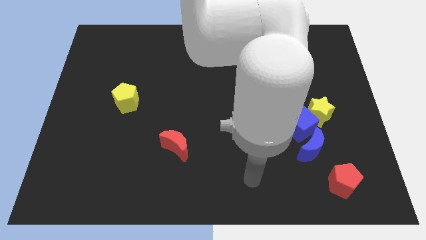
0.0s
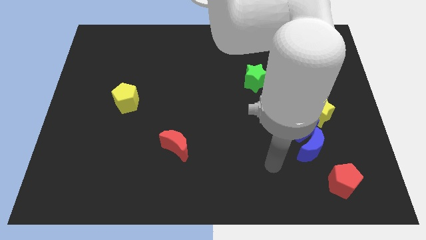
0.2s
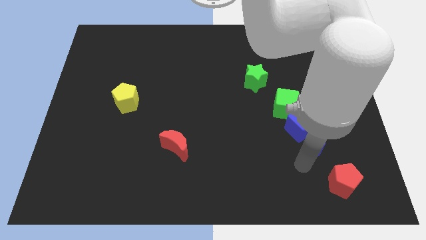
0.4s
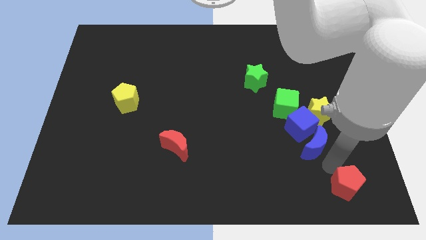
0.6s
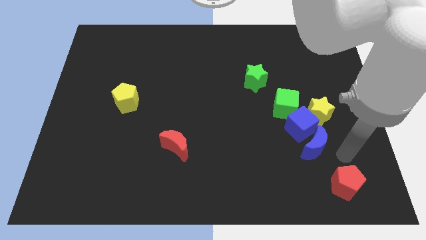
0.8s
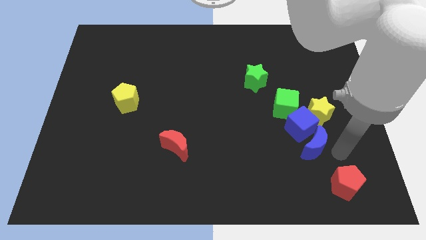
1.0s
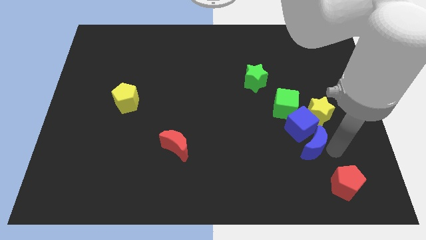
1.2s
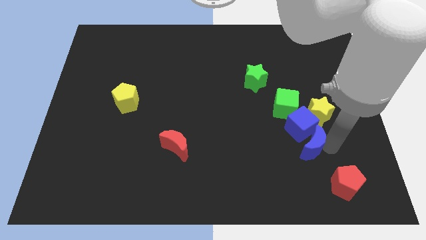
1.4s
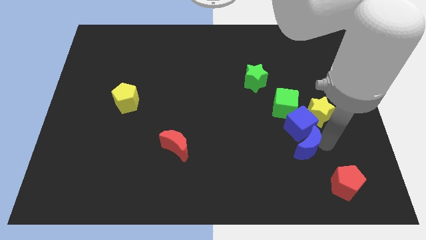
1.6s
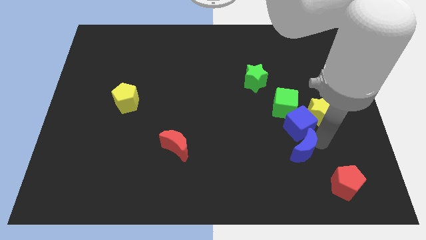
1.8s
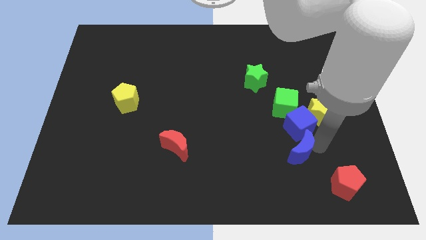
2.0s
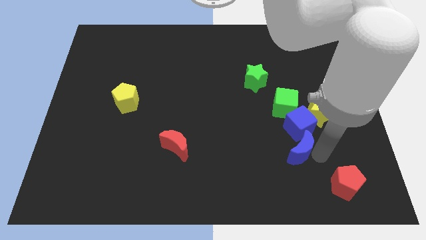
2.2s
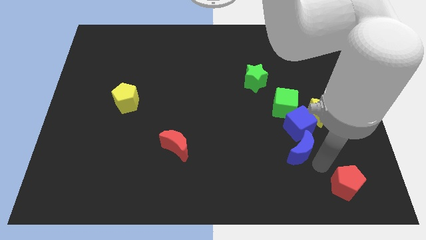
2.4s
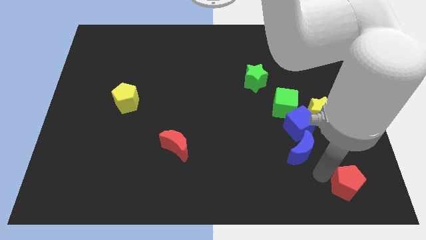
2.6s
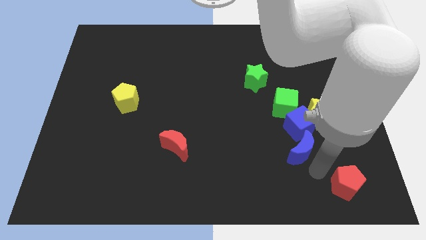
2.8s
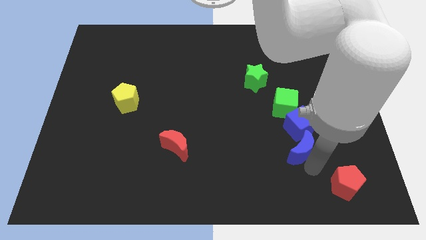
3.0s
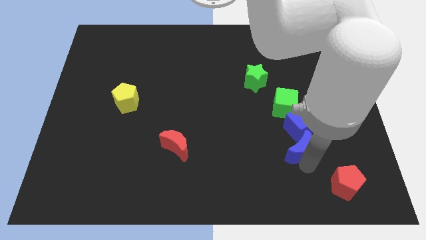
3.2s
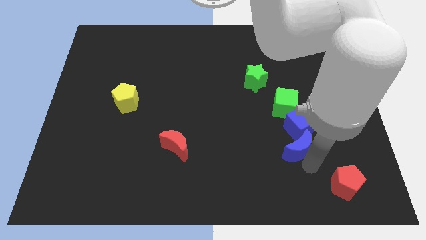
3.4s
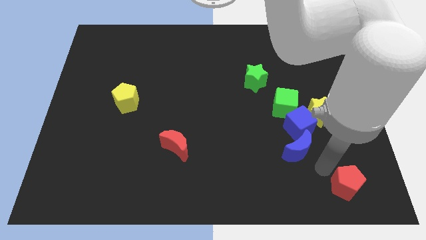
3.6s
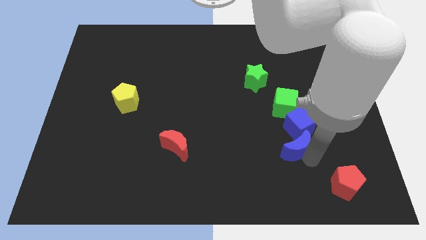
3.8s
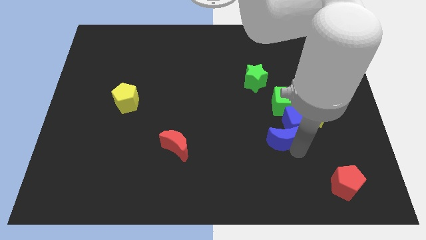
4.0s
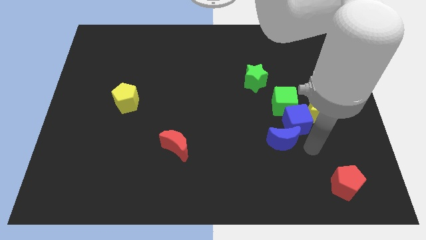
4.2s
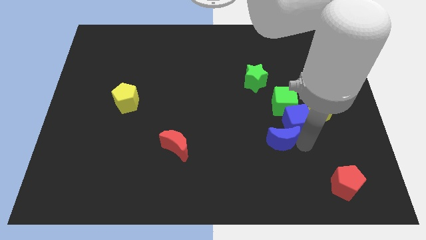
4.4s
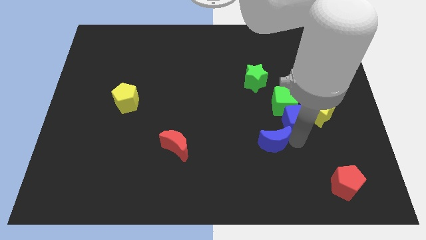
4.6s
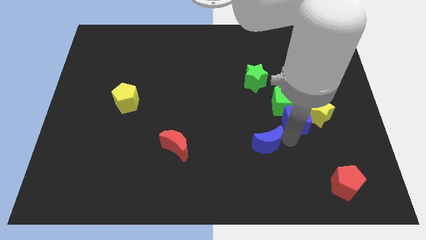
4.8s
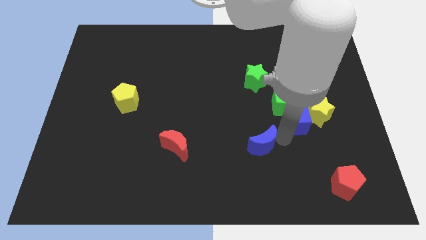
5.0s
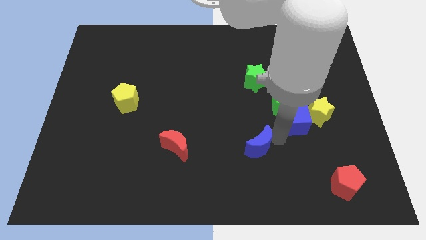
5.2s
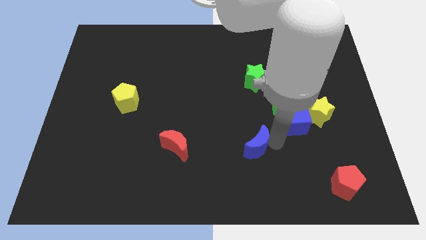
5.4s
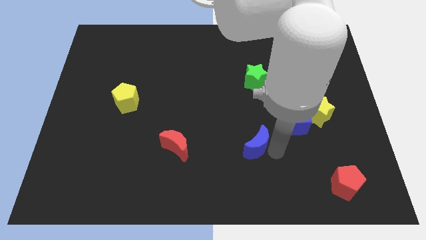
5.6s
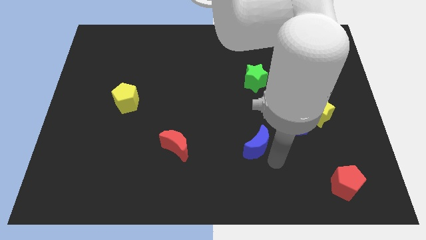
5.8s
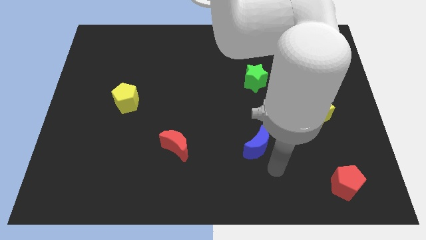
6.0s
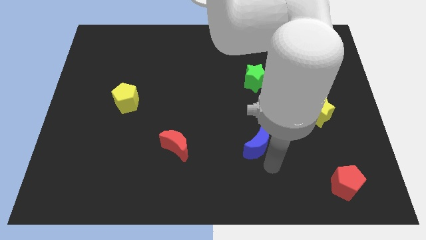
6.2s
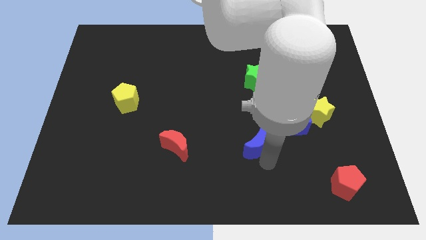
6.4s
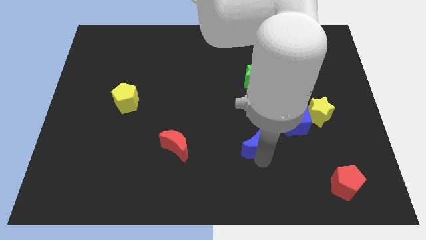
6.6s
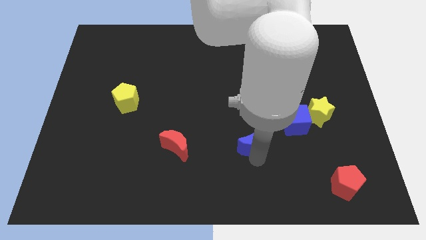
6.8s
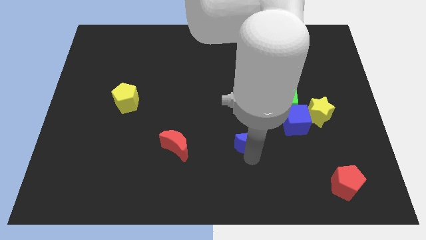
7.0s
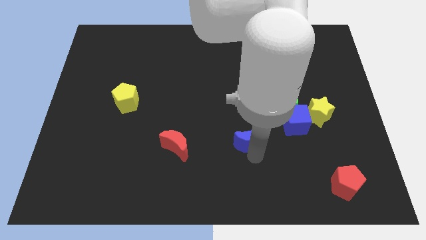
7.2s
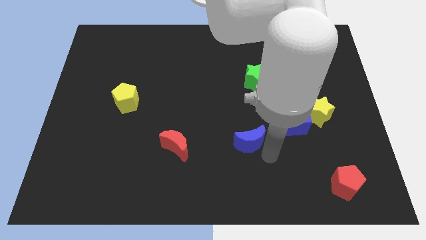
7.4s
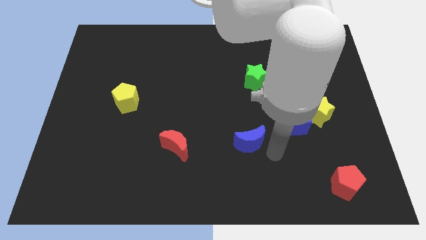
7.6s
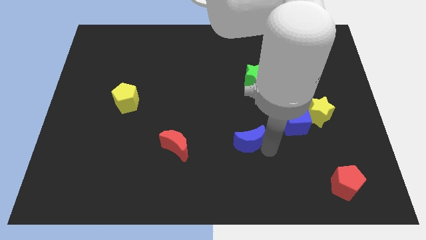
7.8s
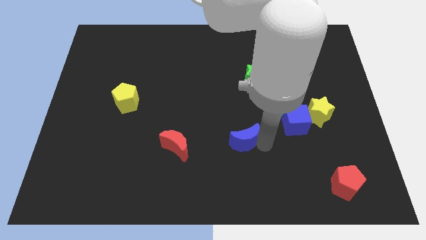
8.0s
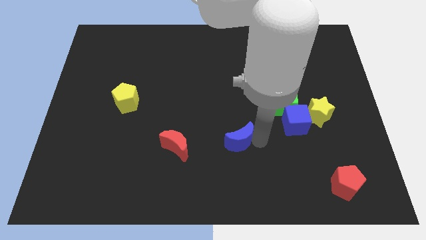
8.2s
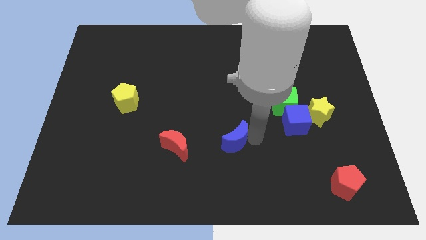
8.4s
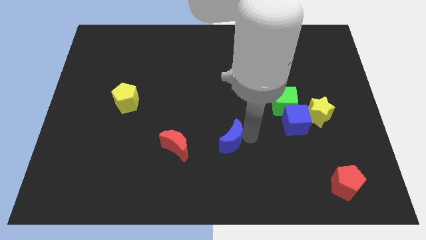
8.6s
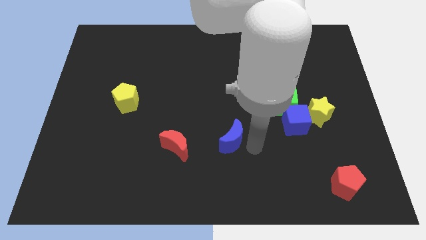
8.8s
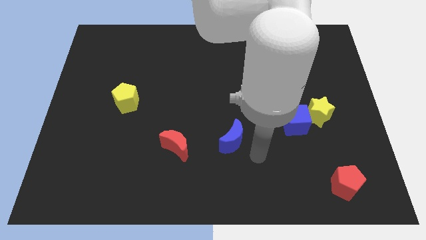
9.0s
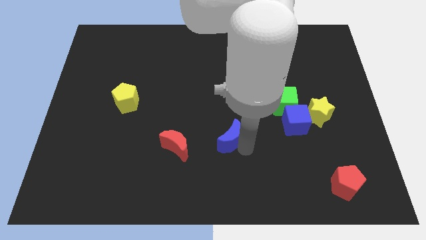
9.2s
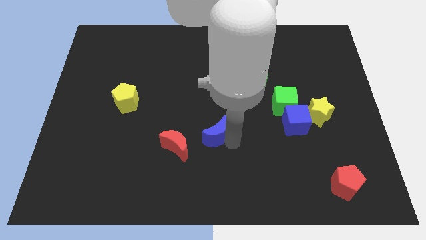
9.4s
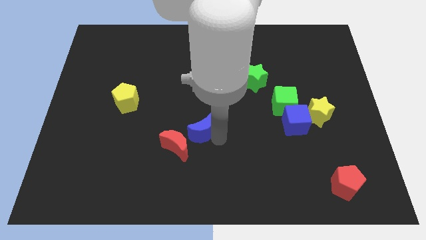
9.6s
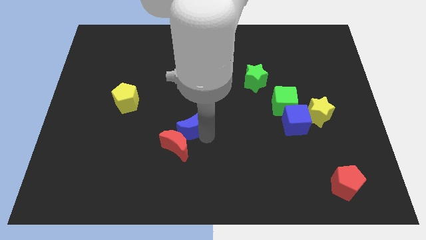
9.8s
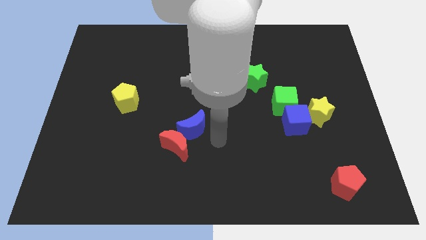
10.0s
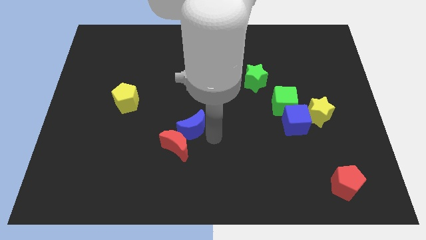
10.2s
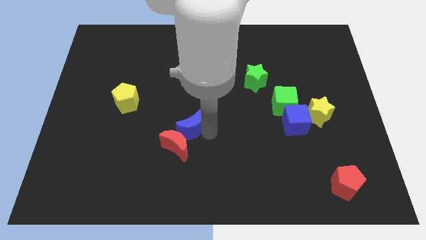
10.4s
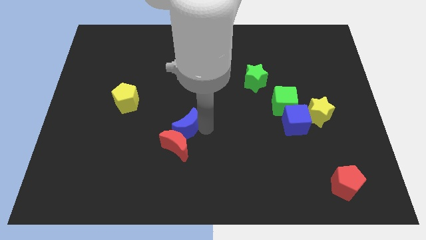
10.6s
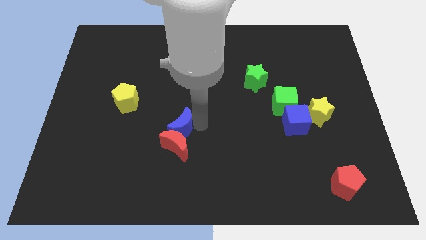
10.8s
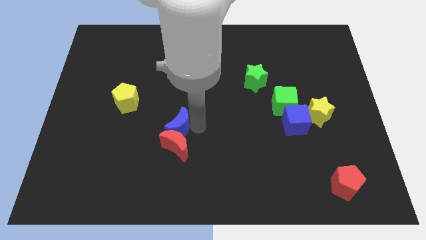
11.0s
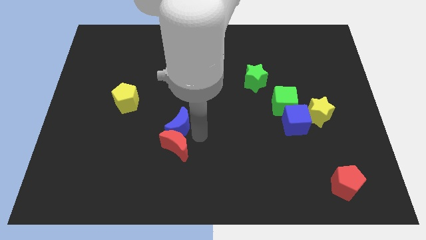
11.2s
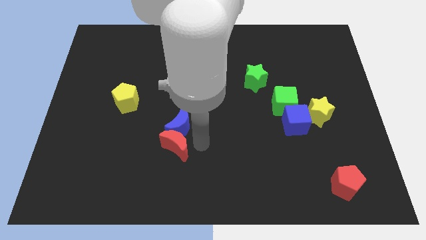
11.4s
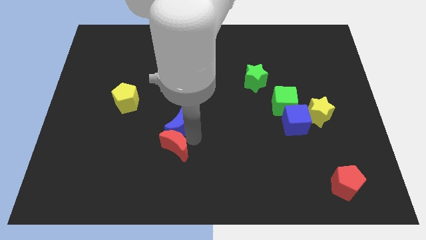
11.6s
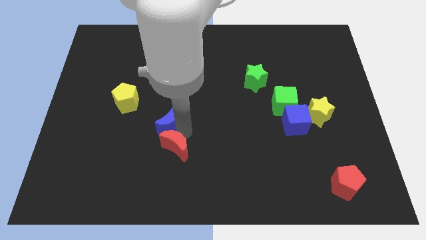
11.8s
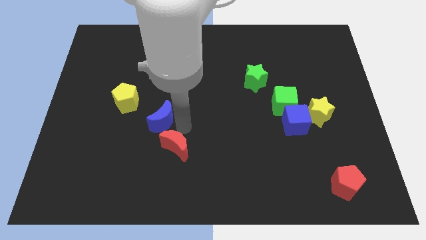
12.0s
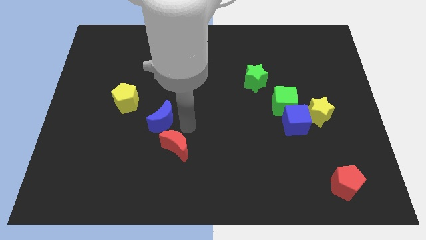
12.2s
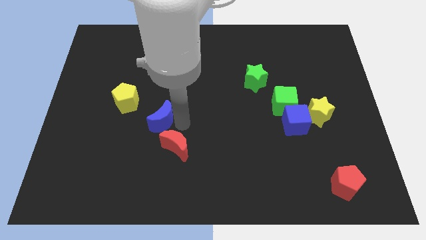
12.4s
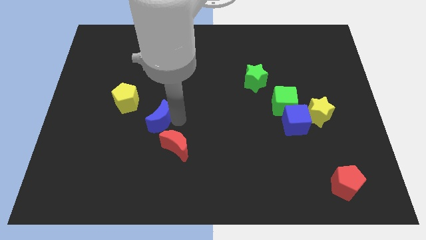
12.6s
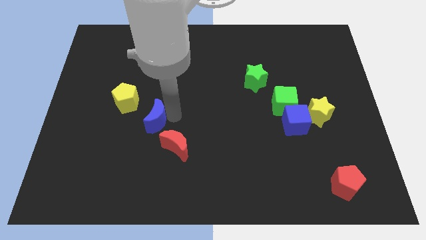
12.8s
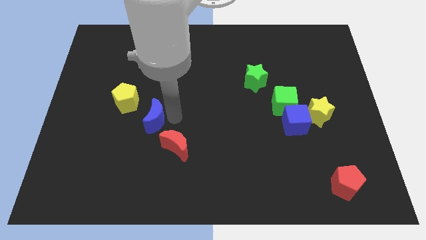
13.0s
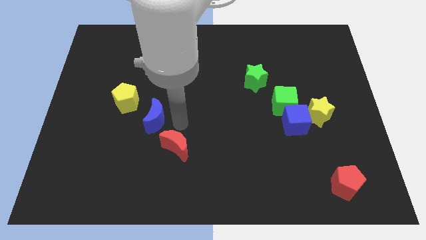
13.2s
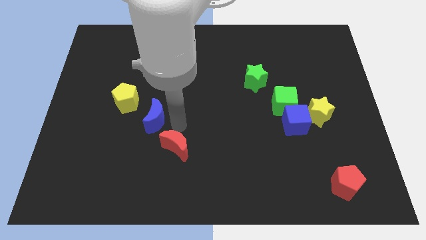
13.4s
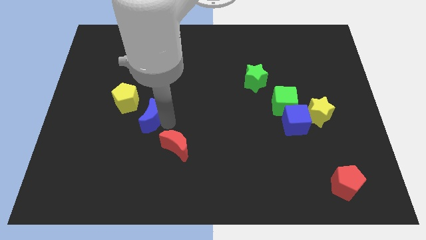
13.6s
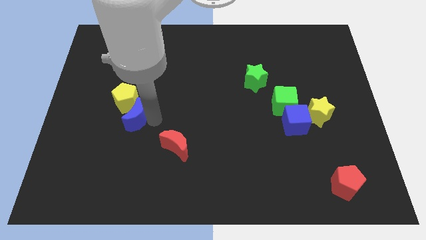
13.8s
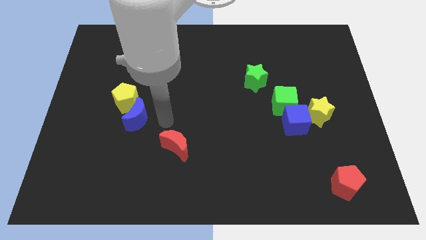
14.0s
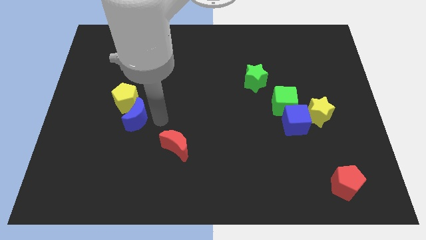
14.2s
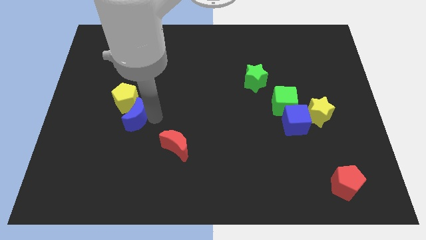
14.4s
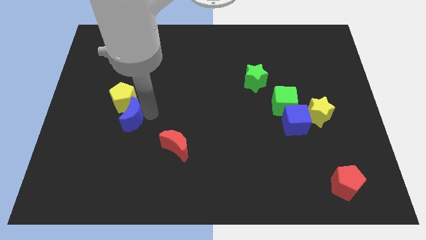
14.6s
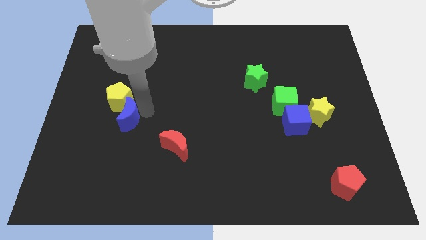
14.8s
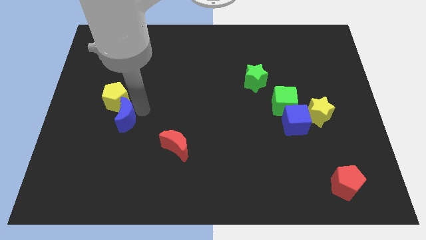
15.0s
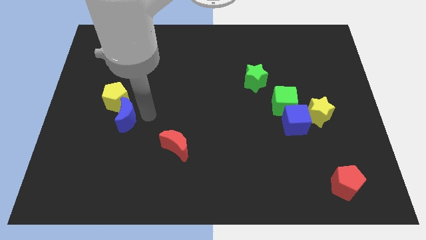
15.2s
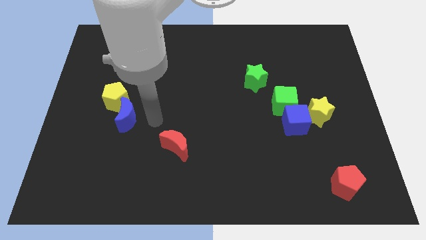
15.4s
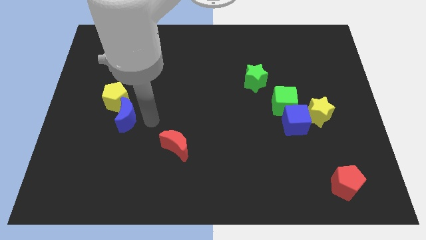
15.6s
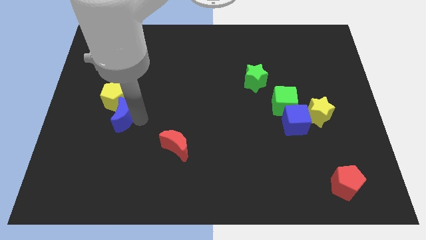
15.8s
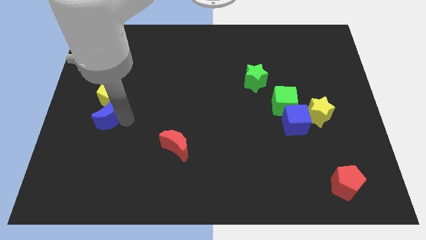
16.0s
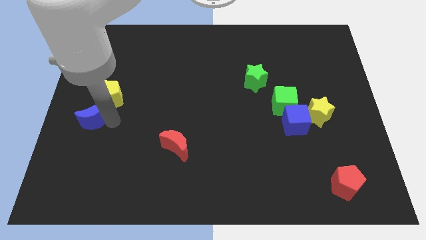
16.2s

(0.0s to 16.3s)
push the blue moon to the left side of the board
